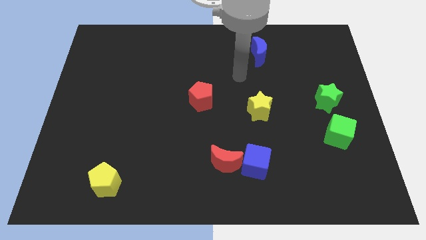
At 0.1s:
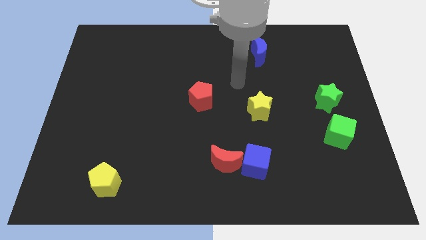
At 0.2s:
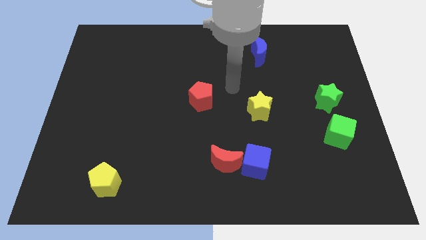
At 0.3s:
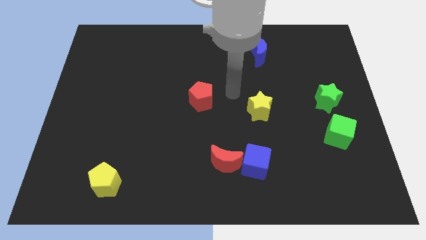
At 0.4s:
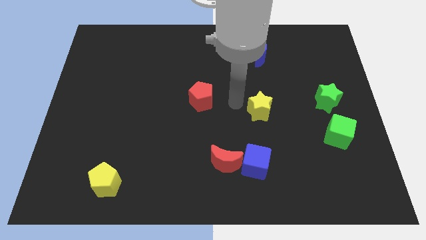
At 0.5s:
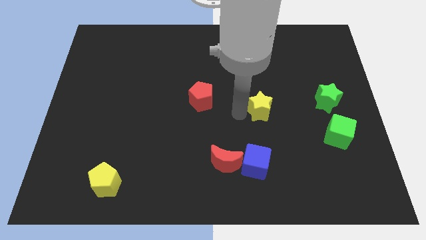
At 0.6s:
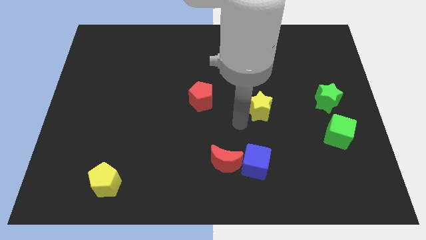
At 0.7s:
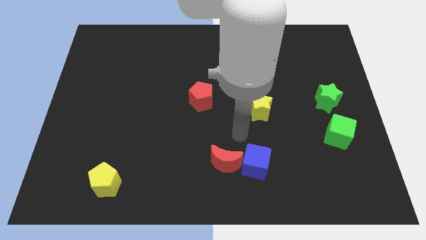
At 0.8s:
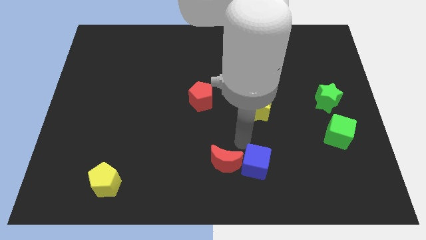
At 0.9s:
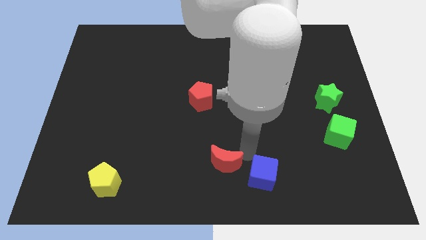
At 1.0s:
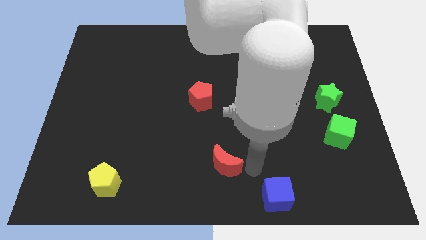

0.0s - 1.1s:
separate the red moon from the blue cube

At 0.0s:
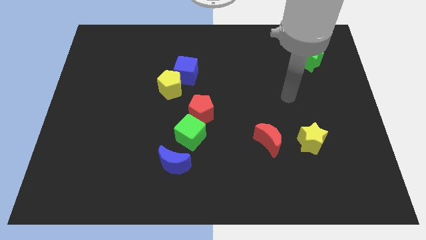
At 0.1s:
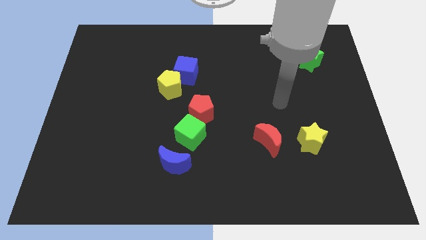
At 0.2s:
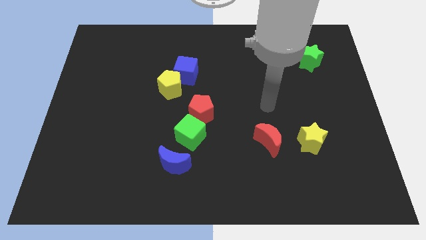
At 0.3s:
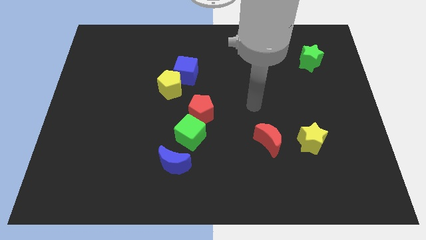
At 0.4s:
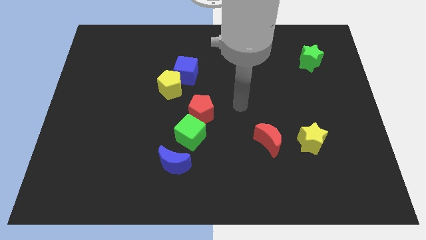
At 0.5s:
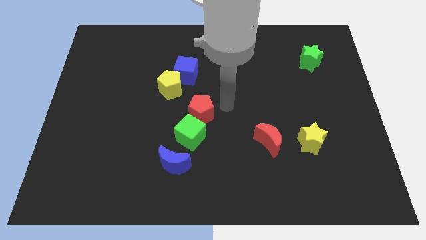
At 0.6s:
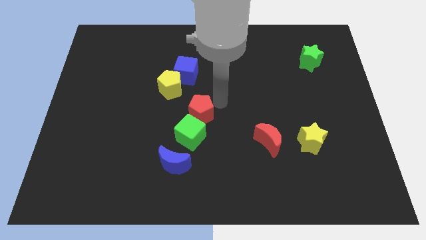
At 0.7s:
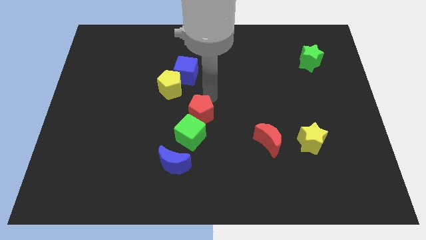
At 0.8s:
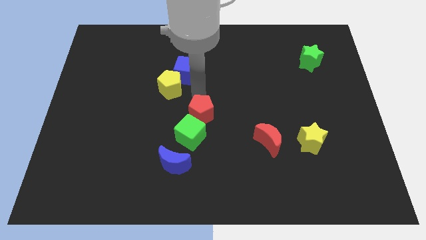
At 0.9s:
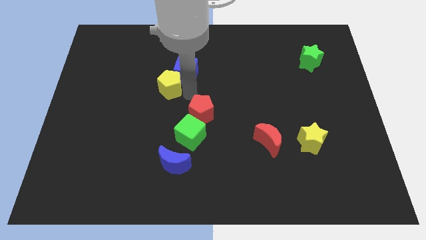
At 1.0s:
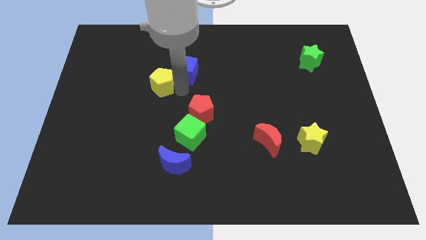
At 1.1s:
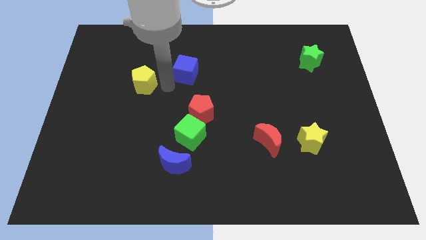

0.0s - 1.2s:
move the blue cube away from the yellow pentagon

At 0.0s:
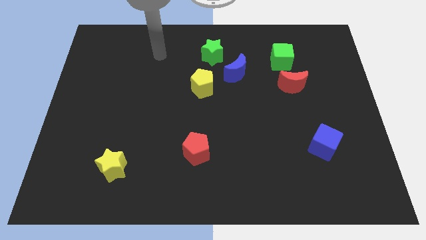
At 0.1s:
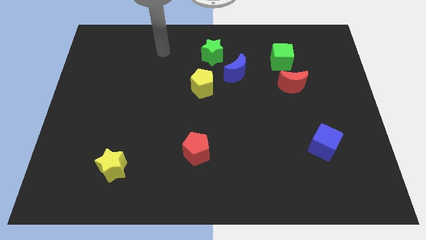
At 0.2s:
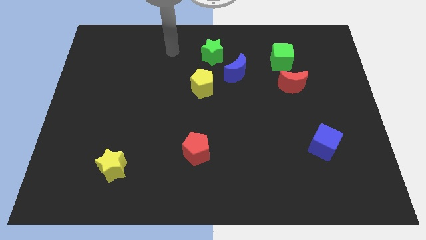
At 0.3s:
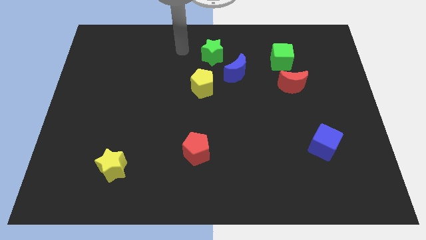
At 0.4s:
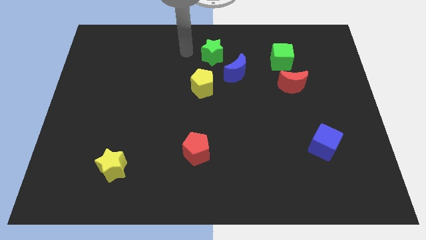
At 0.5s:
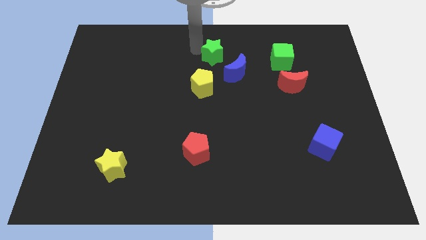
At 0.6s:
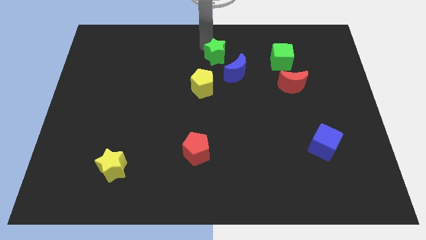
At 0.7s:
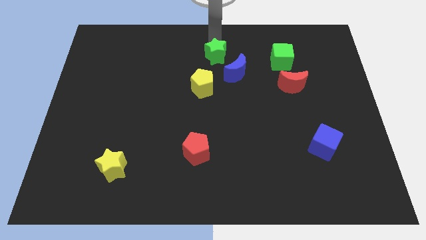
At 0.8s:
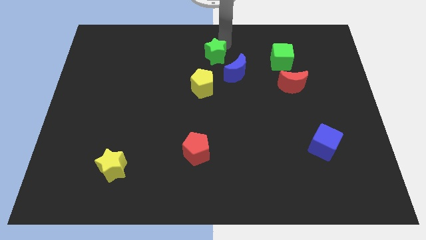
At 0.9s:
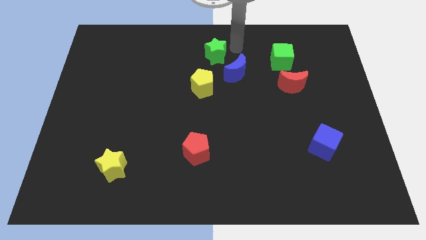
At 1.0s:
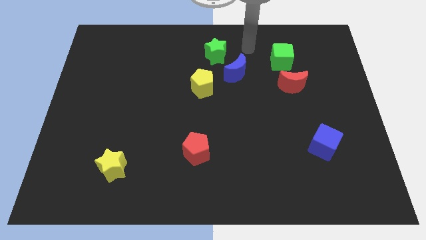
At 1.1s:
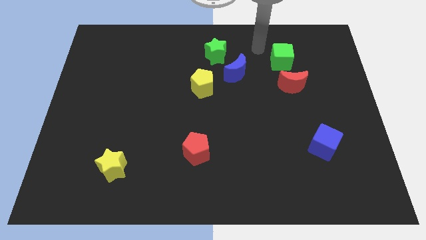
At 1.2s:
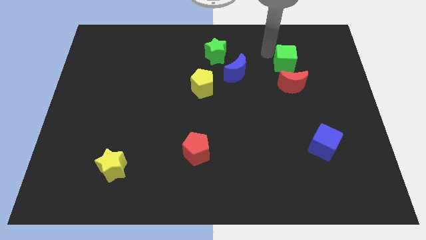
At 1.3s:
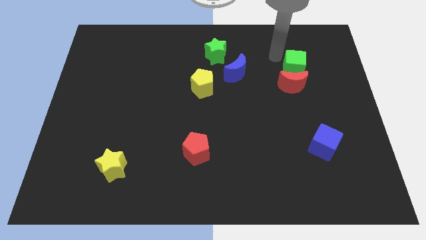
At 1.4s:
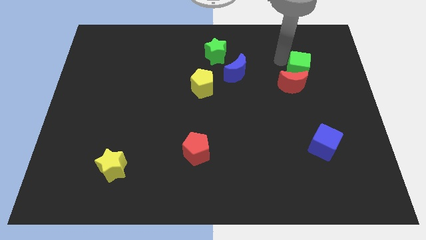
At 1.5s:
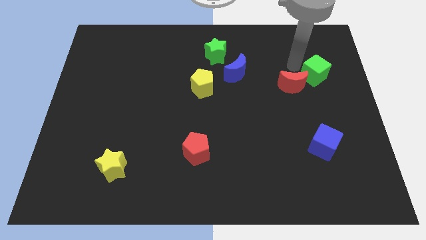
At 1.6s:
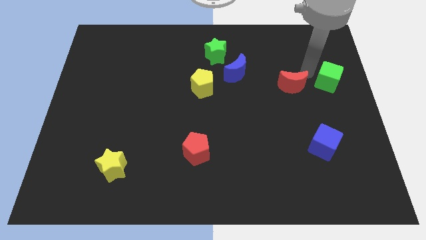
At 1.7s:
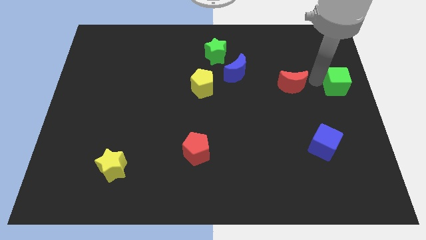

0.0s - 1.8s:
separate the red moon from the green cube

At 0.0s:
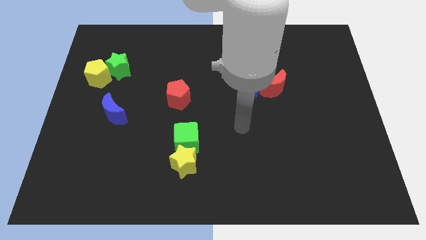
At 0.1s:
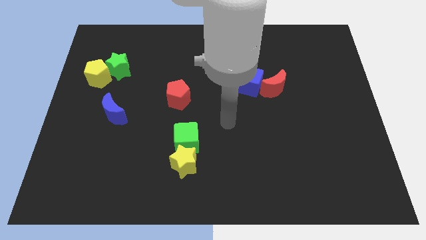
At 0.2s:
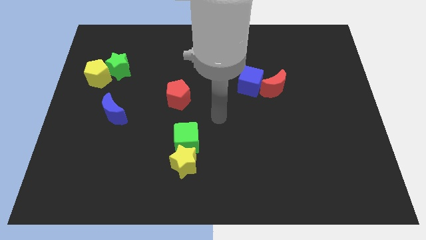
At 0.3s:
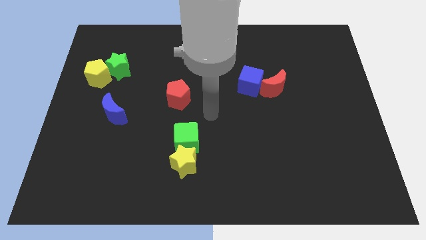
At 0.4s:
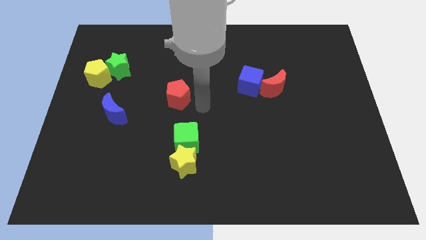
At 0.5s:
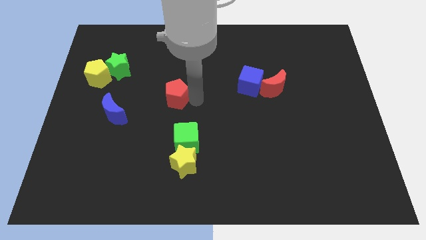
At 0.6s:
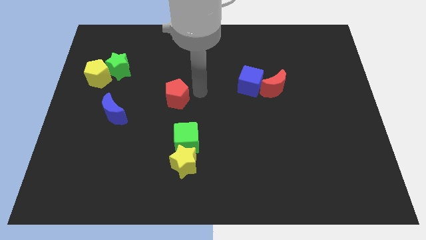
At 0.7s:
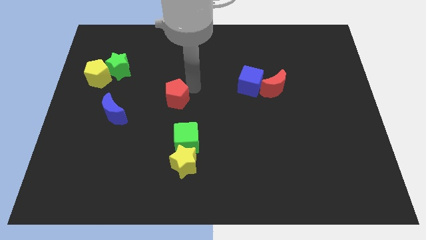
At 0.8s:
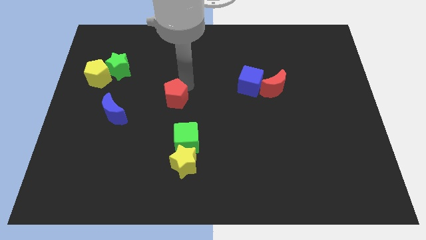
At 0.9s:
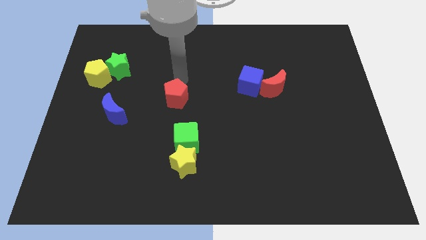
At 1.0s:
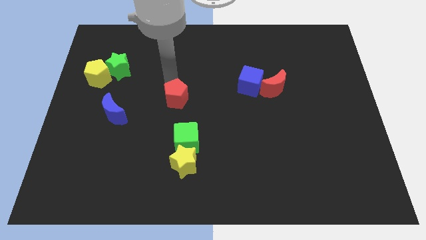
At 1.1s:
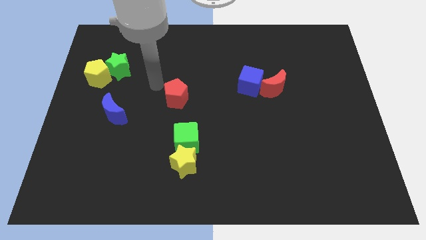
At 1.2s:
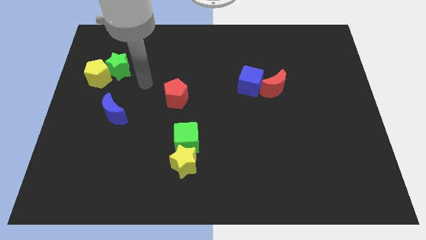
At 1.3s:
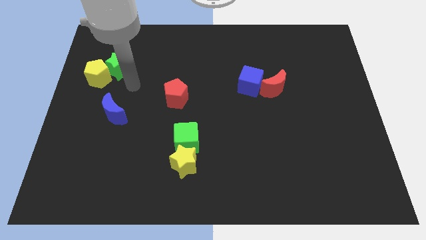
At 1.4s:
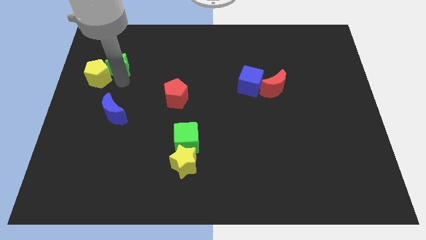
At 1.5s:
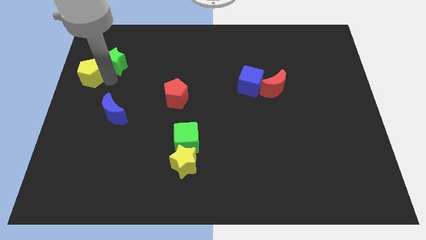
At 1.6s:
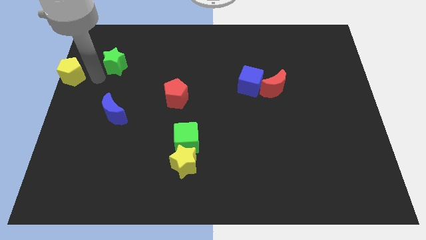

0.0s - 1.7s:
separate the green star from the yellow pentagon

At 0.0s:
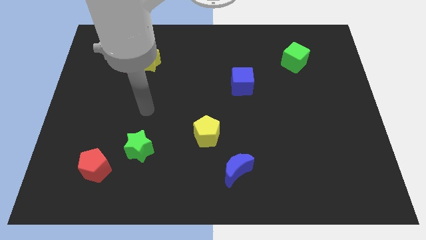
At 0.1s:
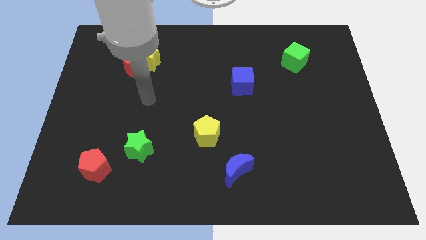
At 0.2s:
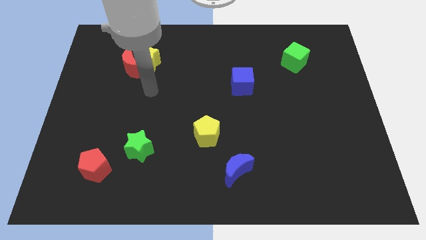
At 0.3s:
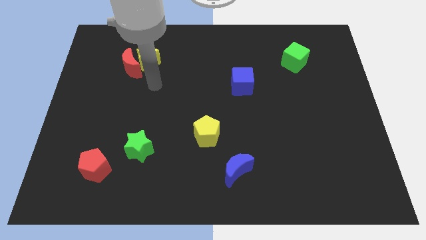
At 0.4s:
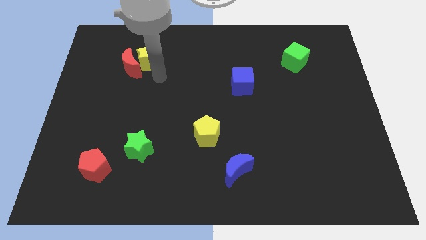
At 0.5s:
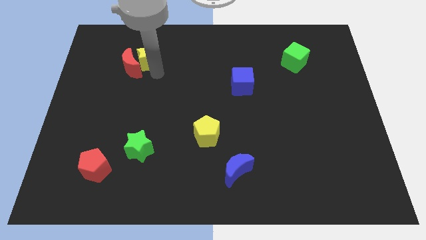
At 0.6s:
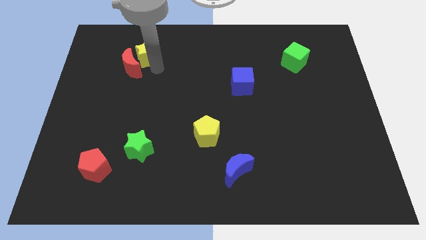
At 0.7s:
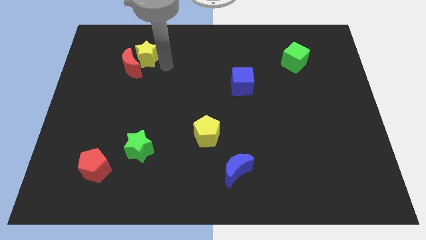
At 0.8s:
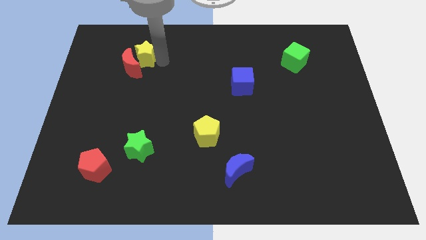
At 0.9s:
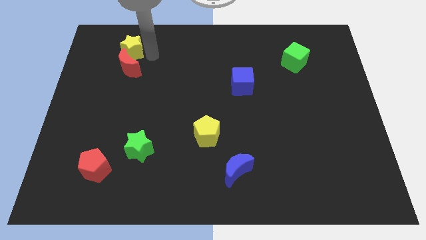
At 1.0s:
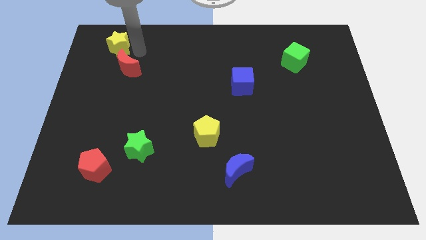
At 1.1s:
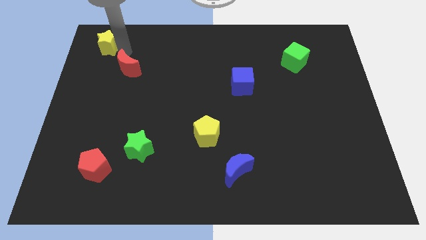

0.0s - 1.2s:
separate the red moon from the yellow star

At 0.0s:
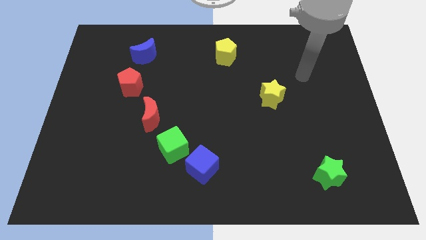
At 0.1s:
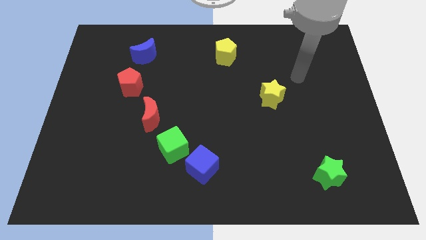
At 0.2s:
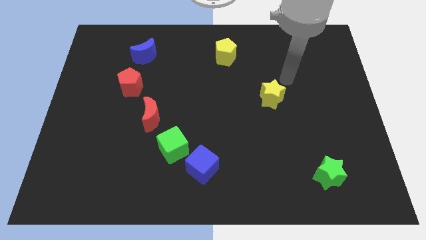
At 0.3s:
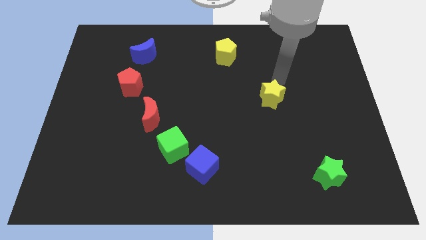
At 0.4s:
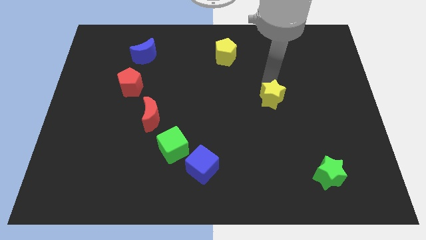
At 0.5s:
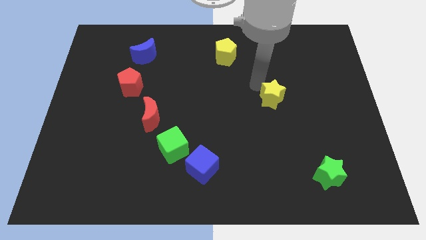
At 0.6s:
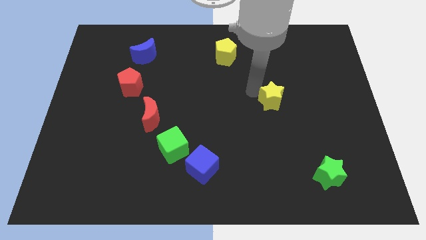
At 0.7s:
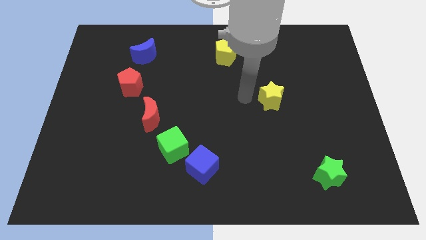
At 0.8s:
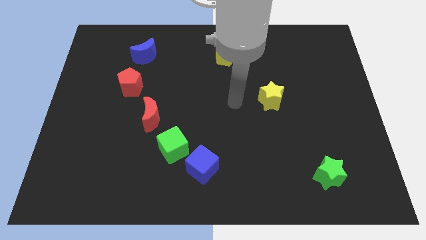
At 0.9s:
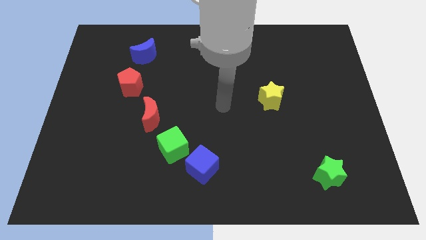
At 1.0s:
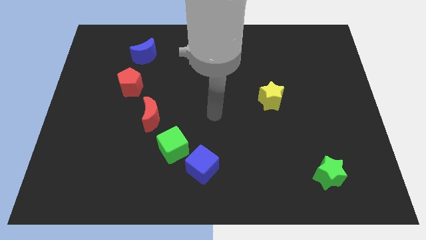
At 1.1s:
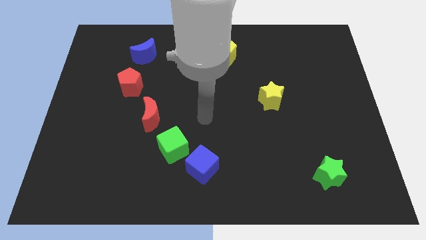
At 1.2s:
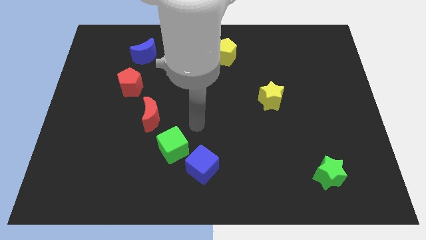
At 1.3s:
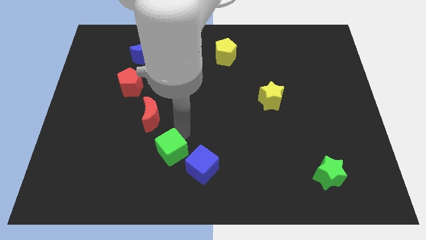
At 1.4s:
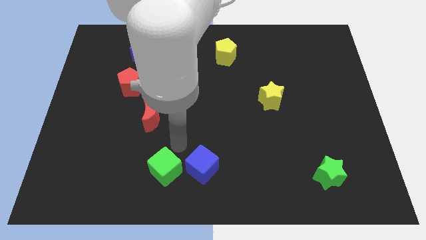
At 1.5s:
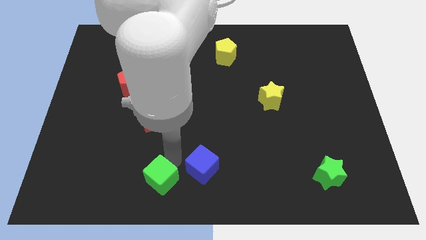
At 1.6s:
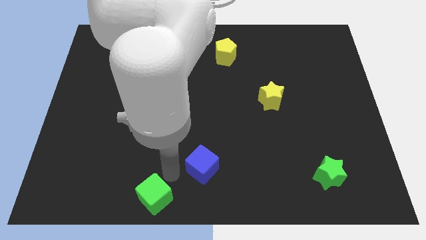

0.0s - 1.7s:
move the blue cube away from the green cube

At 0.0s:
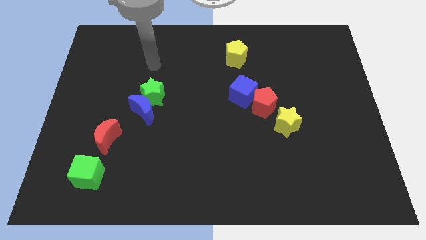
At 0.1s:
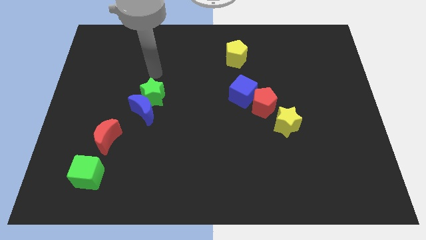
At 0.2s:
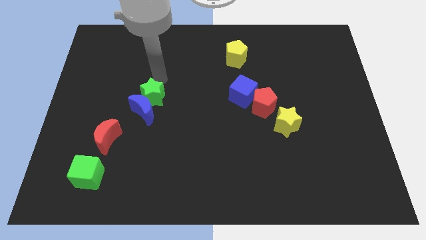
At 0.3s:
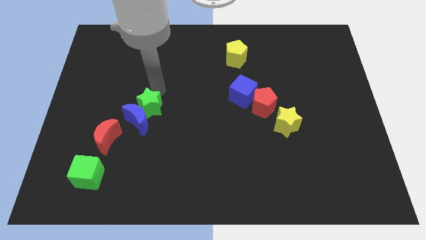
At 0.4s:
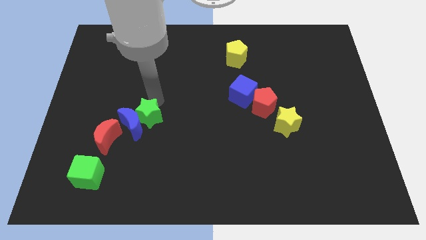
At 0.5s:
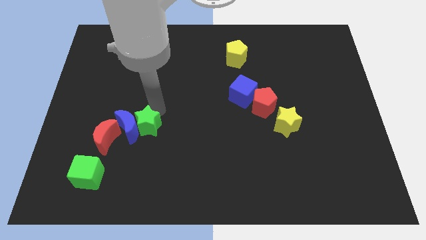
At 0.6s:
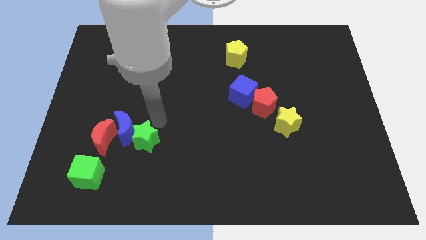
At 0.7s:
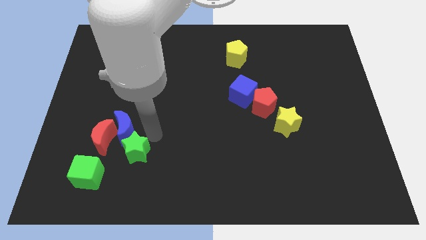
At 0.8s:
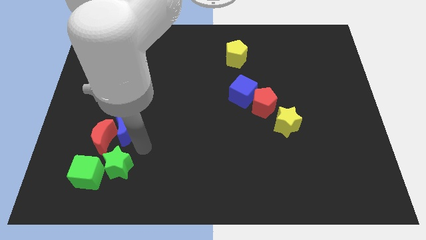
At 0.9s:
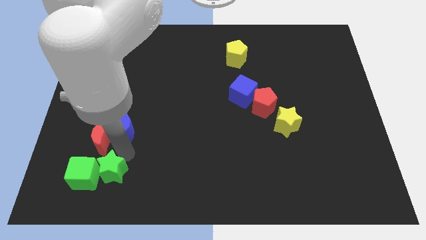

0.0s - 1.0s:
separate the blue moon from the green star
